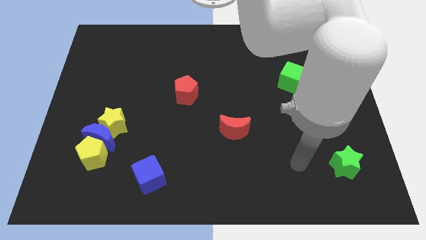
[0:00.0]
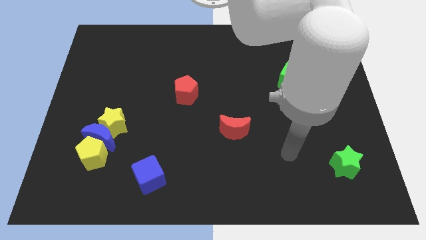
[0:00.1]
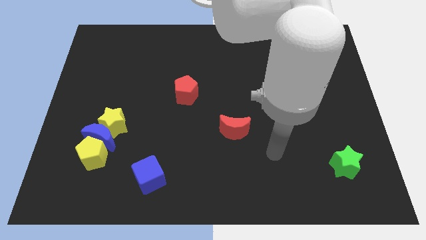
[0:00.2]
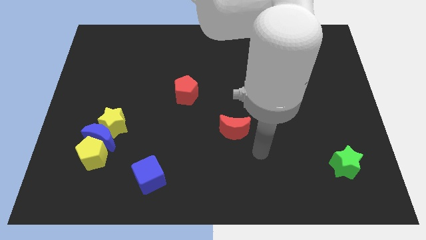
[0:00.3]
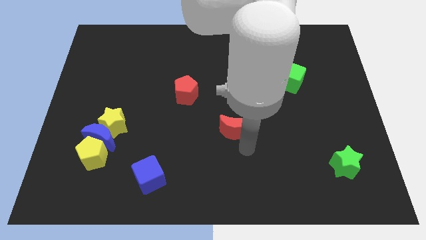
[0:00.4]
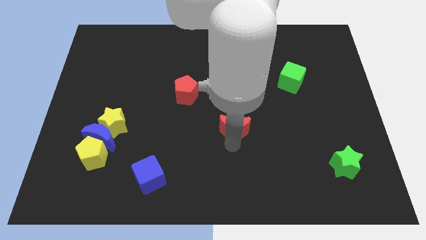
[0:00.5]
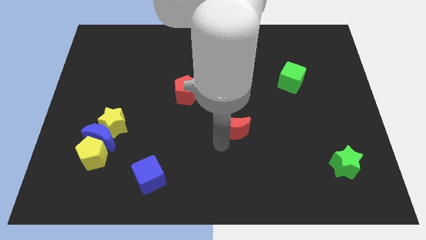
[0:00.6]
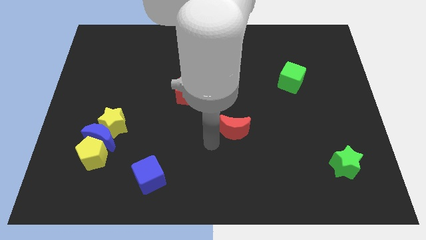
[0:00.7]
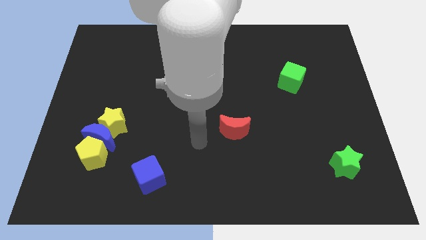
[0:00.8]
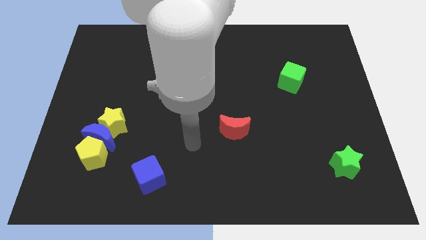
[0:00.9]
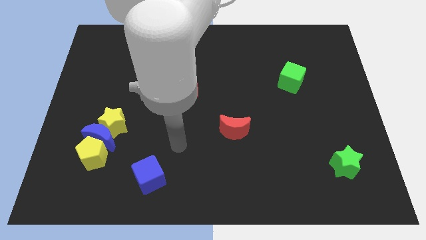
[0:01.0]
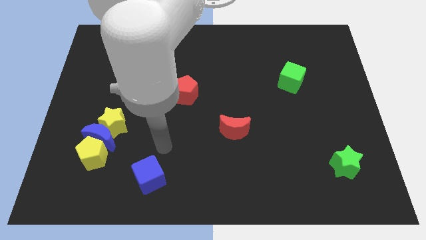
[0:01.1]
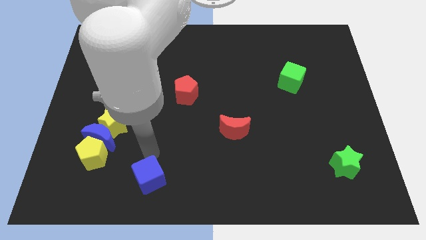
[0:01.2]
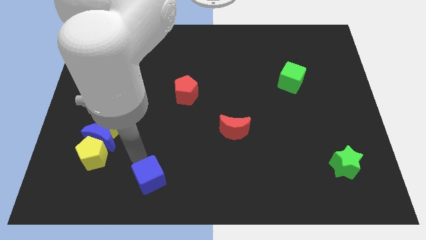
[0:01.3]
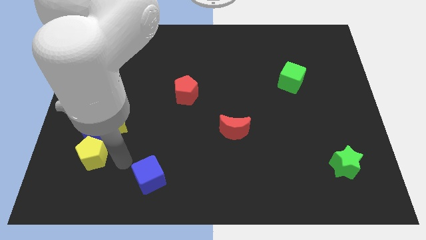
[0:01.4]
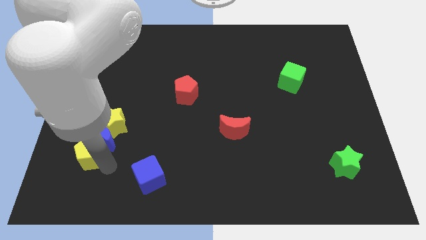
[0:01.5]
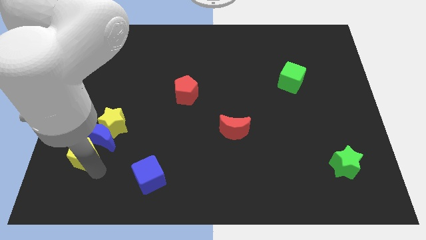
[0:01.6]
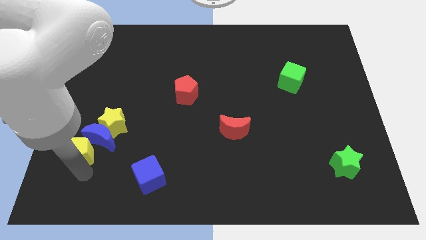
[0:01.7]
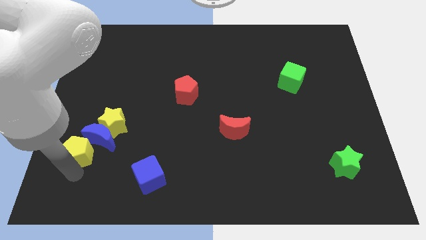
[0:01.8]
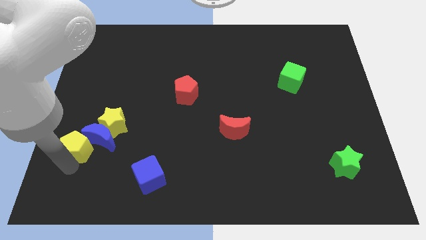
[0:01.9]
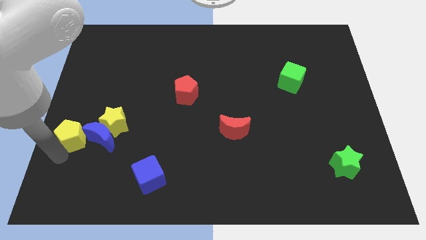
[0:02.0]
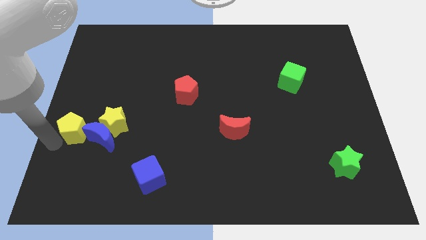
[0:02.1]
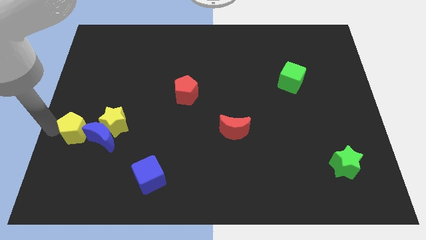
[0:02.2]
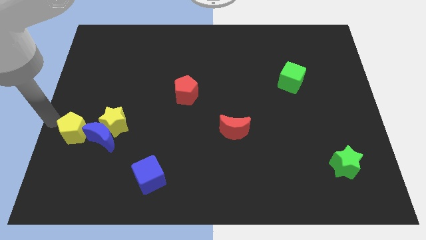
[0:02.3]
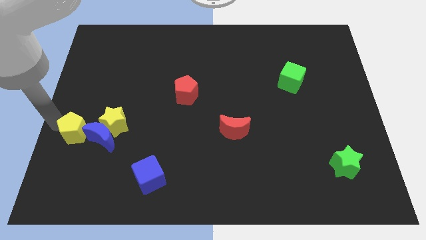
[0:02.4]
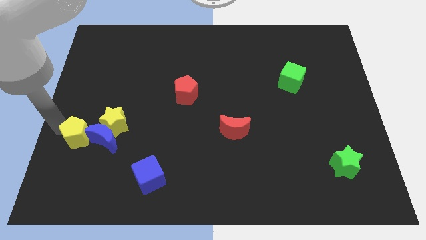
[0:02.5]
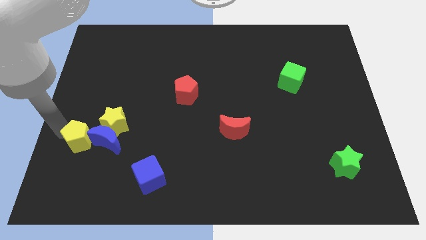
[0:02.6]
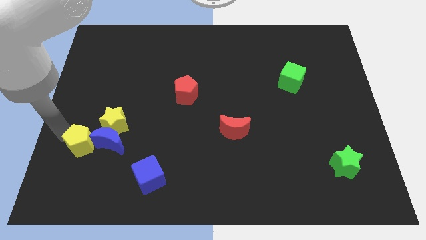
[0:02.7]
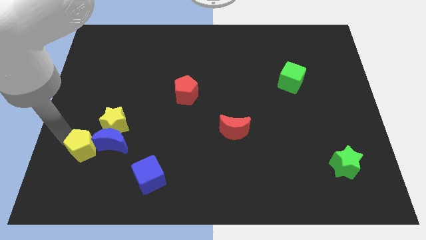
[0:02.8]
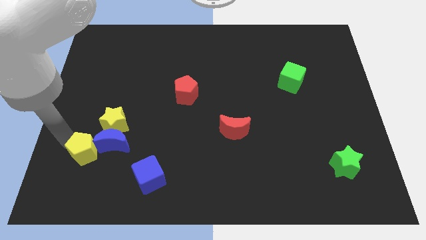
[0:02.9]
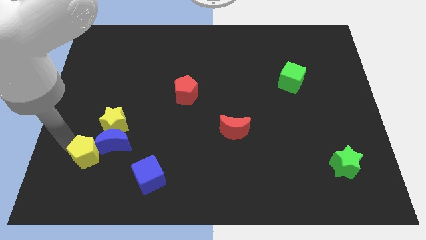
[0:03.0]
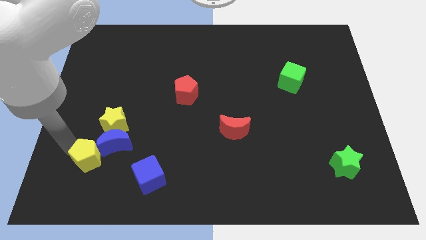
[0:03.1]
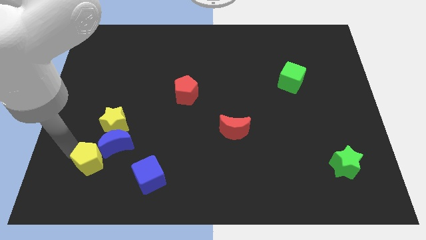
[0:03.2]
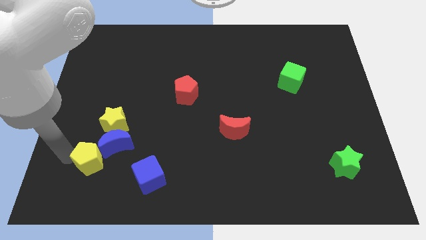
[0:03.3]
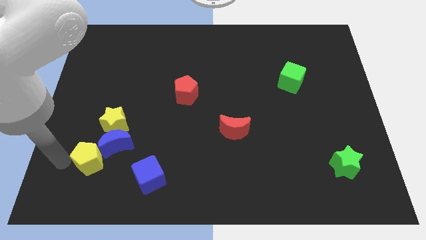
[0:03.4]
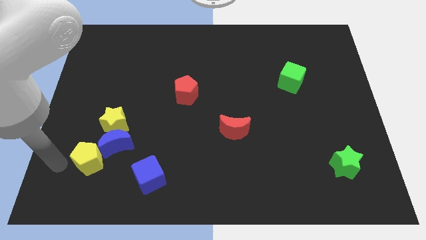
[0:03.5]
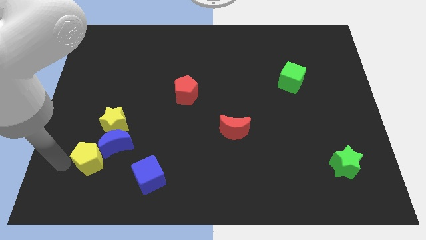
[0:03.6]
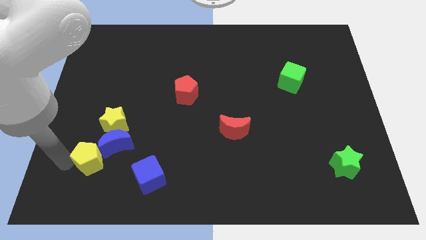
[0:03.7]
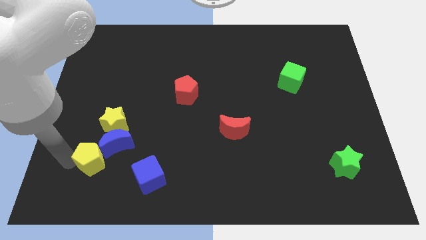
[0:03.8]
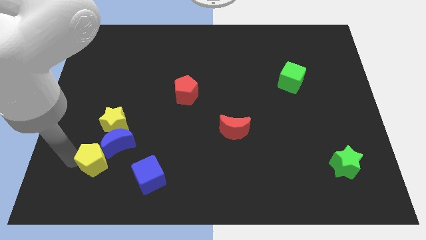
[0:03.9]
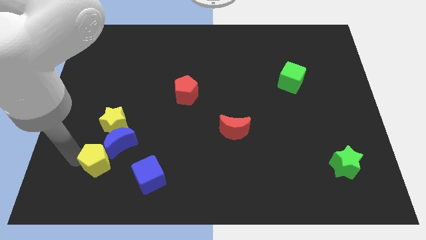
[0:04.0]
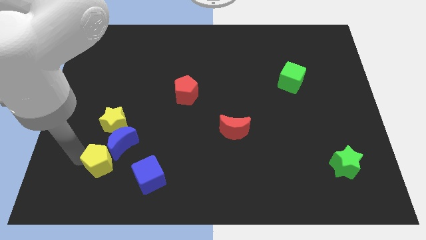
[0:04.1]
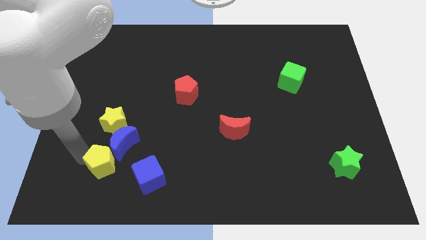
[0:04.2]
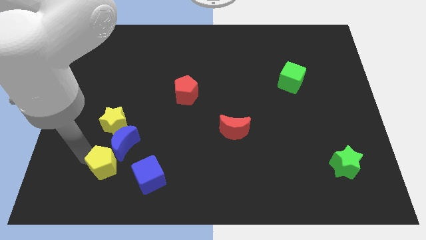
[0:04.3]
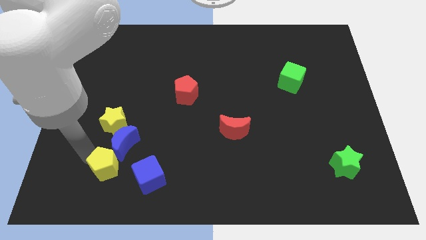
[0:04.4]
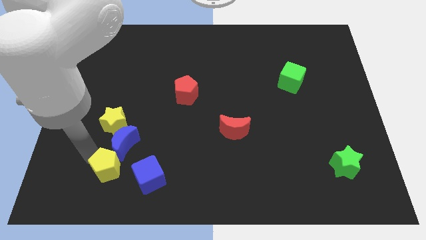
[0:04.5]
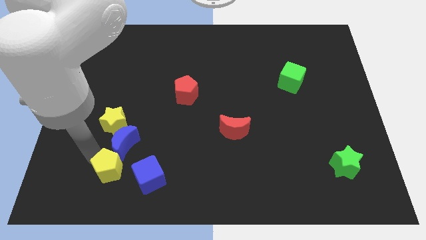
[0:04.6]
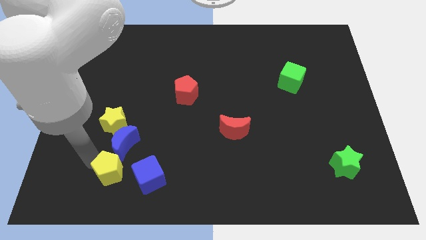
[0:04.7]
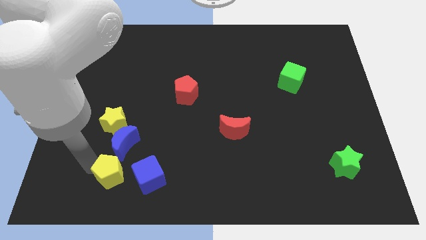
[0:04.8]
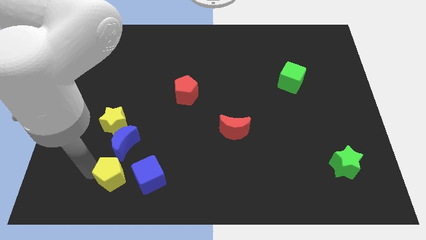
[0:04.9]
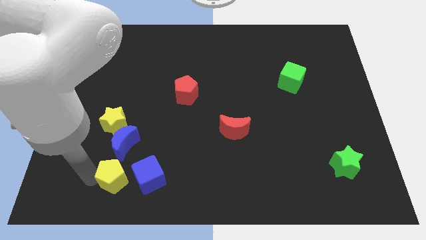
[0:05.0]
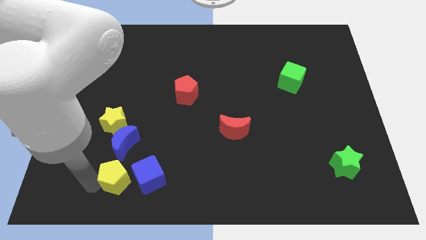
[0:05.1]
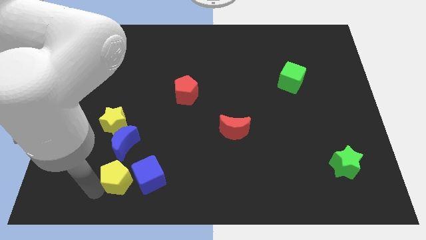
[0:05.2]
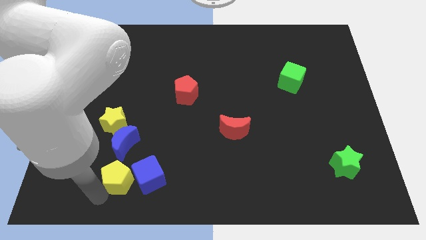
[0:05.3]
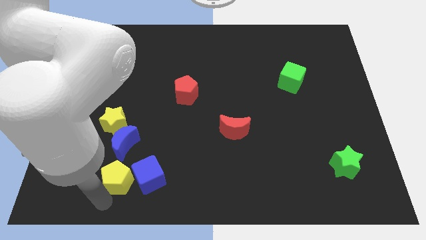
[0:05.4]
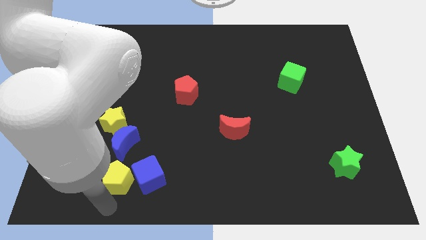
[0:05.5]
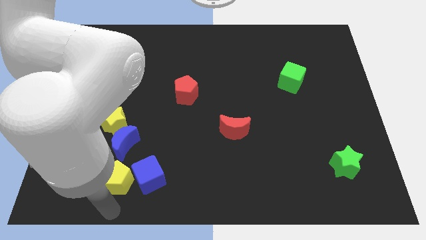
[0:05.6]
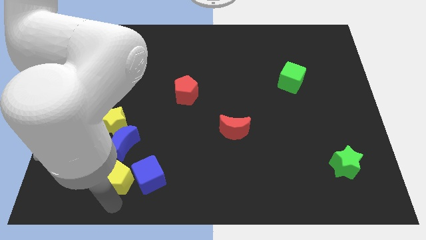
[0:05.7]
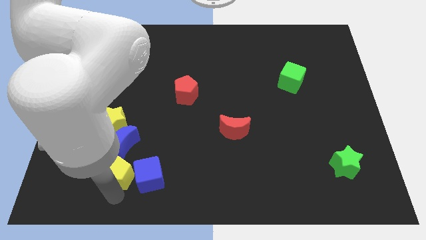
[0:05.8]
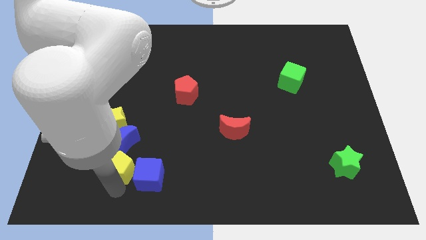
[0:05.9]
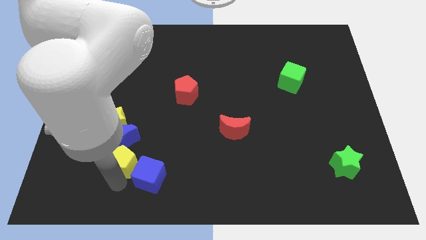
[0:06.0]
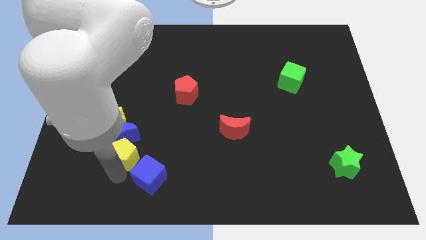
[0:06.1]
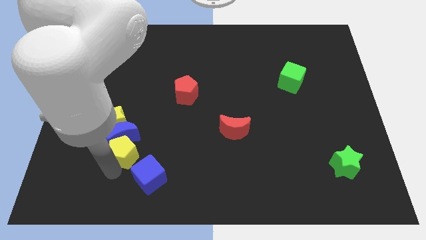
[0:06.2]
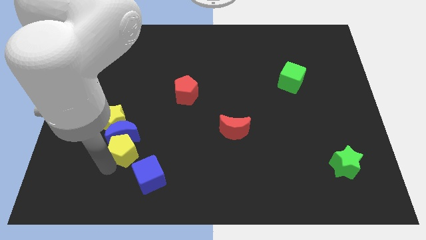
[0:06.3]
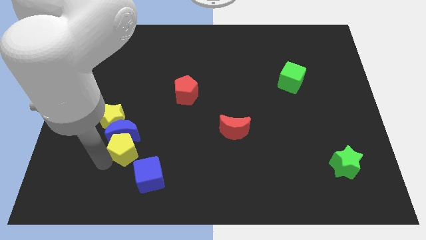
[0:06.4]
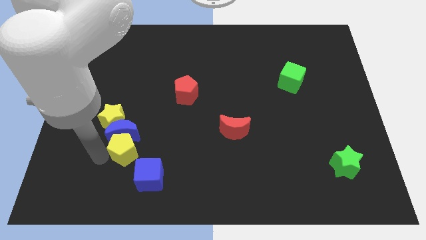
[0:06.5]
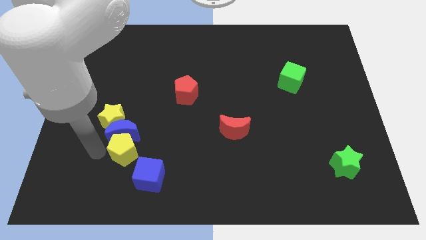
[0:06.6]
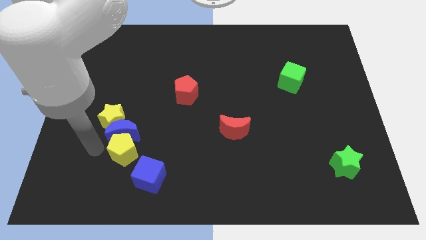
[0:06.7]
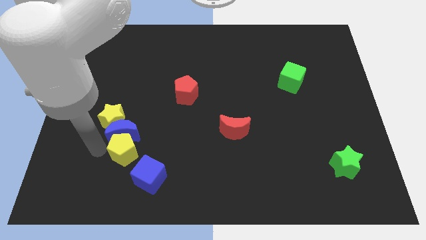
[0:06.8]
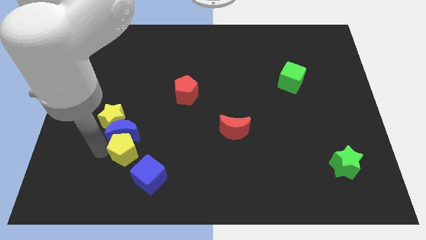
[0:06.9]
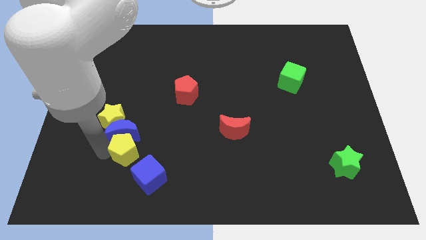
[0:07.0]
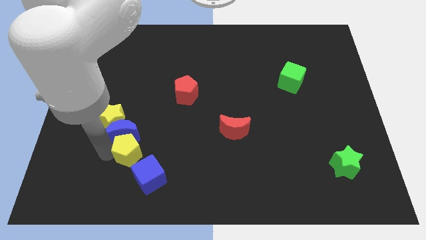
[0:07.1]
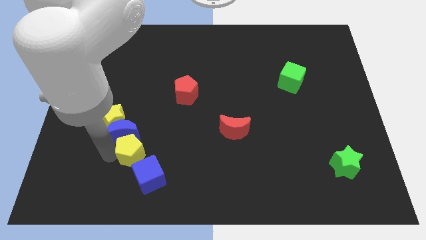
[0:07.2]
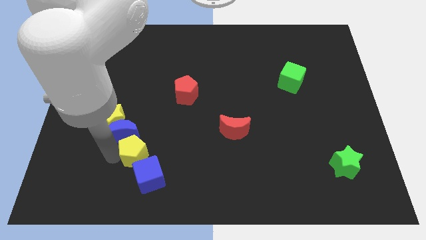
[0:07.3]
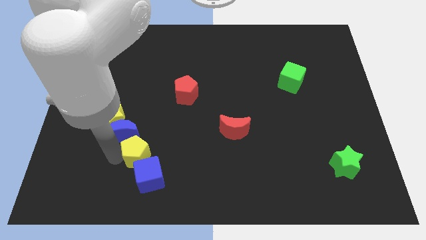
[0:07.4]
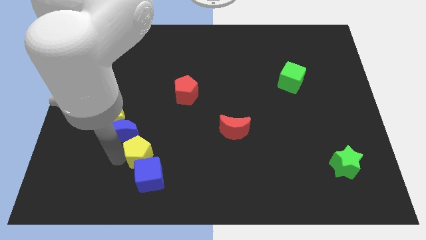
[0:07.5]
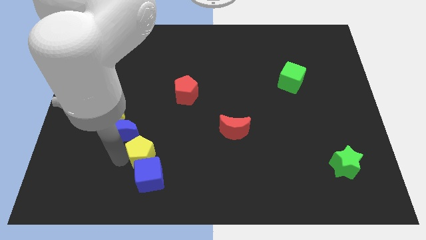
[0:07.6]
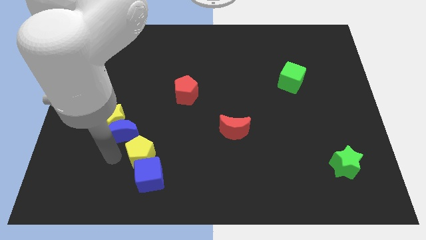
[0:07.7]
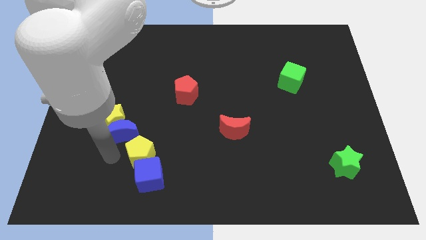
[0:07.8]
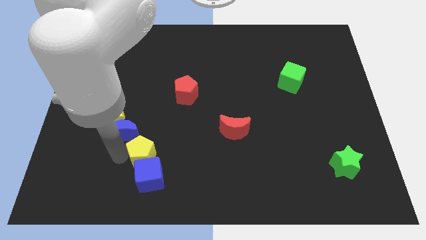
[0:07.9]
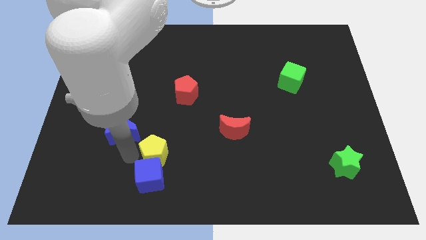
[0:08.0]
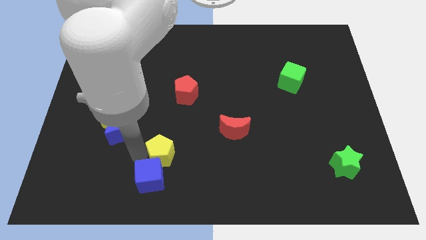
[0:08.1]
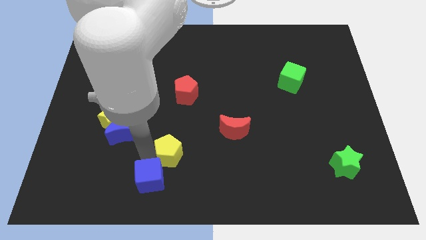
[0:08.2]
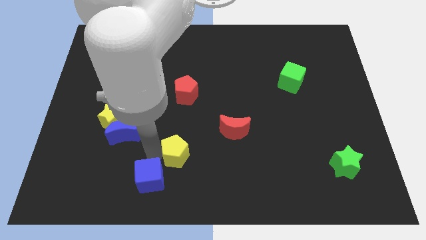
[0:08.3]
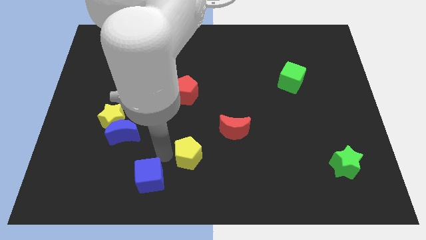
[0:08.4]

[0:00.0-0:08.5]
push the yellow pentagon right
